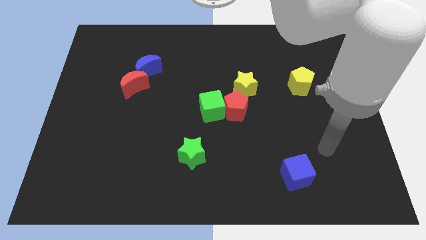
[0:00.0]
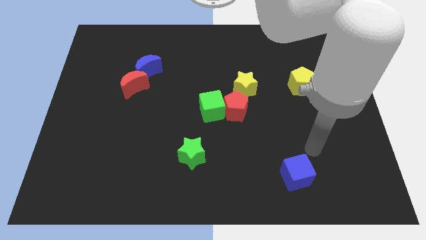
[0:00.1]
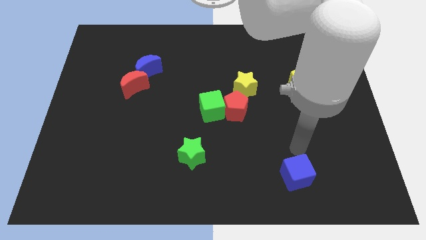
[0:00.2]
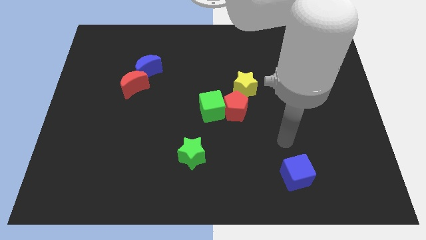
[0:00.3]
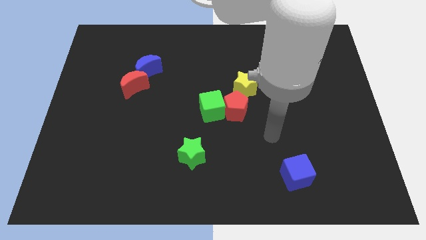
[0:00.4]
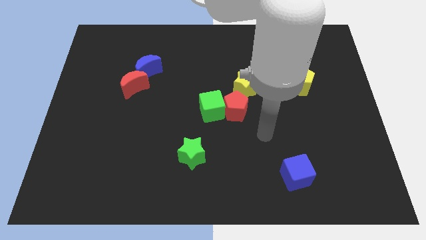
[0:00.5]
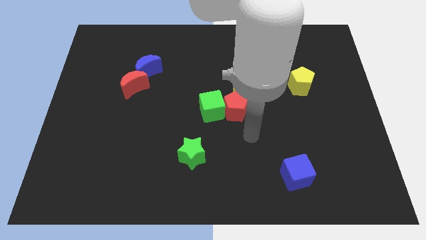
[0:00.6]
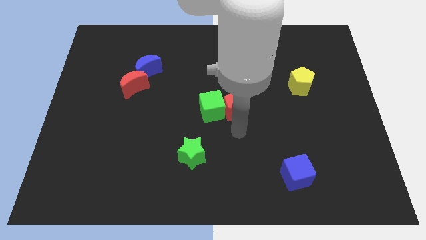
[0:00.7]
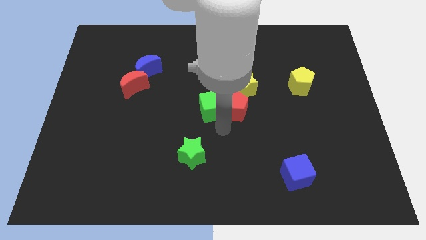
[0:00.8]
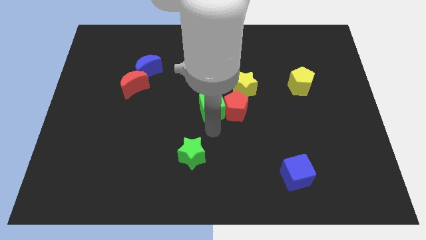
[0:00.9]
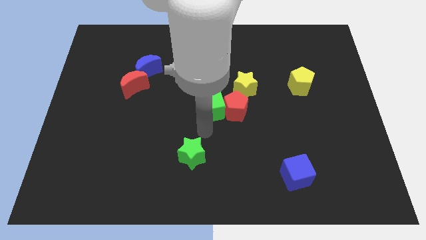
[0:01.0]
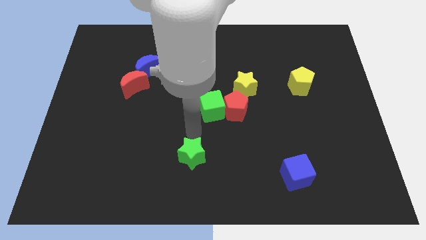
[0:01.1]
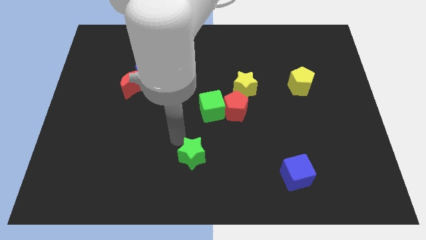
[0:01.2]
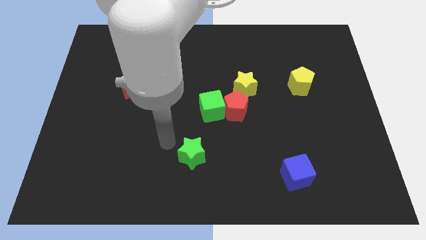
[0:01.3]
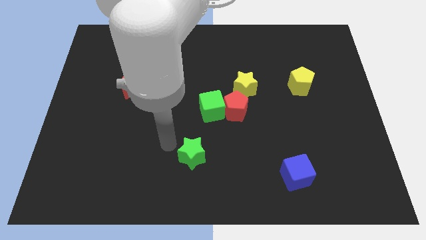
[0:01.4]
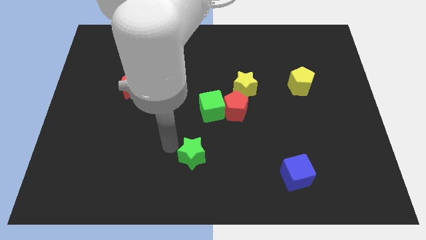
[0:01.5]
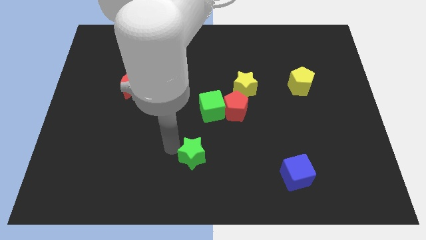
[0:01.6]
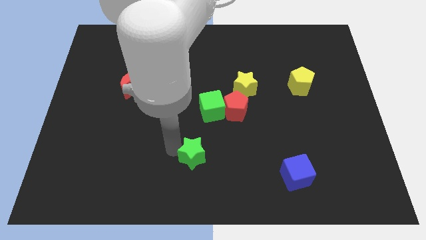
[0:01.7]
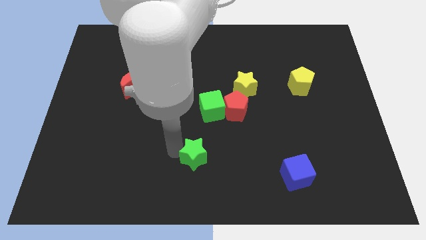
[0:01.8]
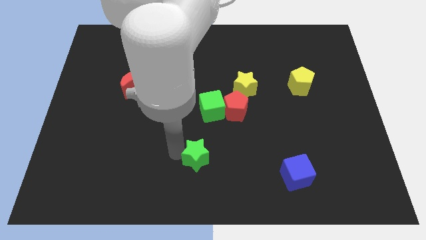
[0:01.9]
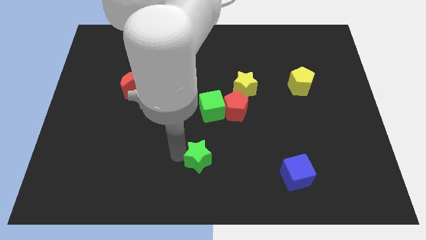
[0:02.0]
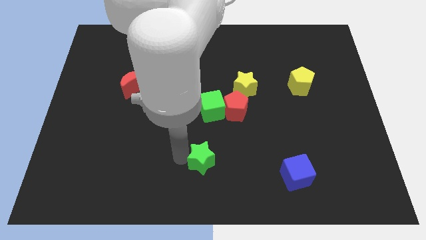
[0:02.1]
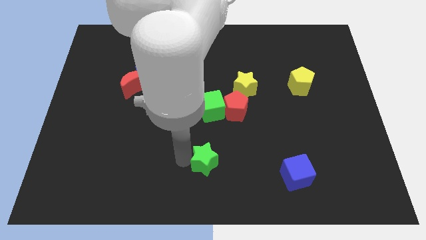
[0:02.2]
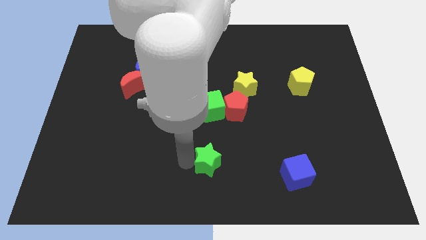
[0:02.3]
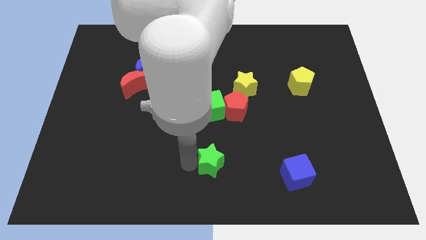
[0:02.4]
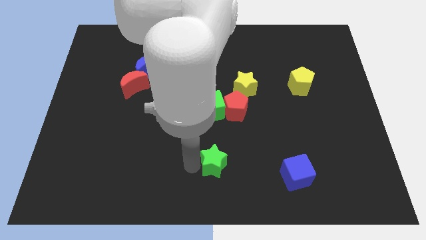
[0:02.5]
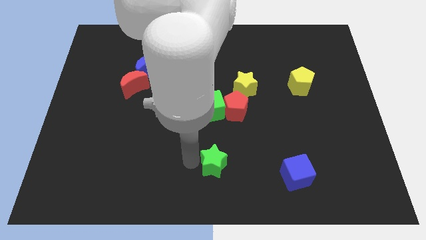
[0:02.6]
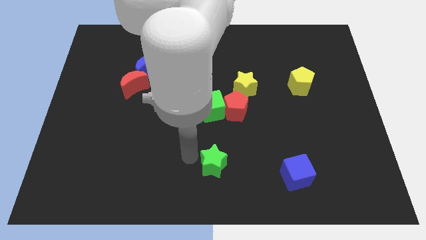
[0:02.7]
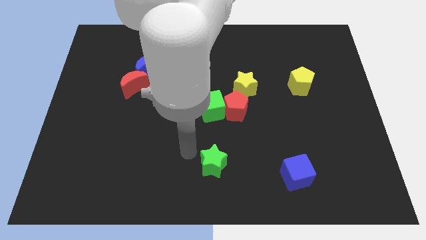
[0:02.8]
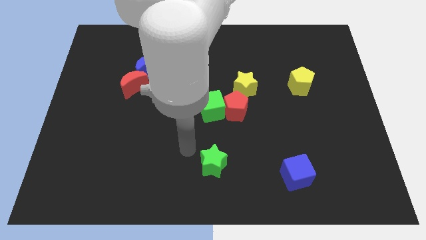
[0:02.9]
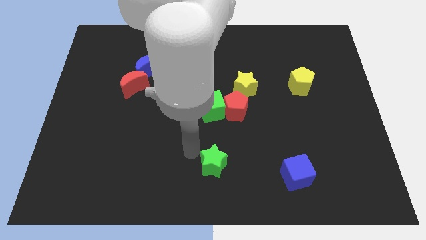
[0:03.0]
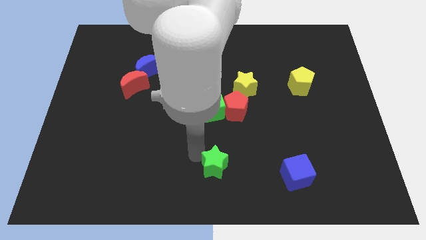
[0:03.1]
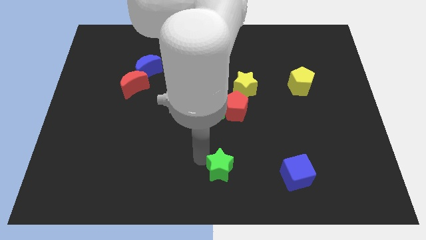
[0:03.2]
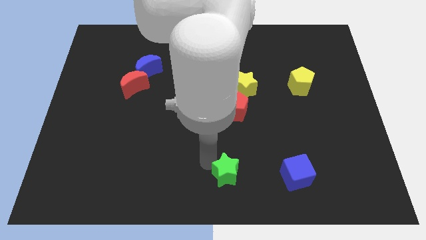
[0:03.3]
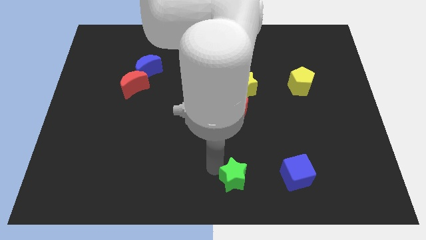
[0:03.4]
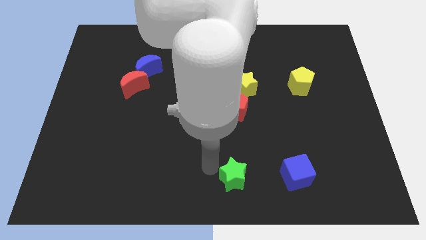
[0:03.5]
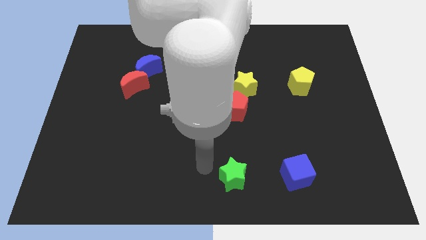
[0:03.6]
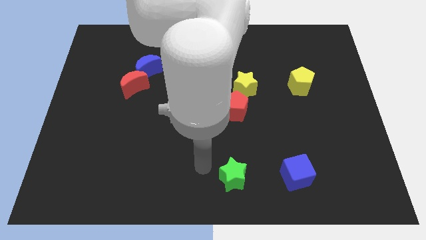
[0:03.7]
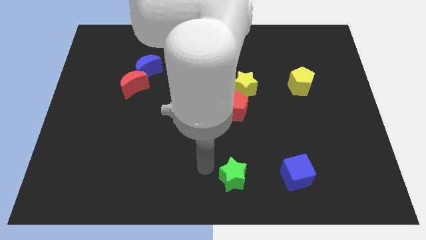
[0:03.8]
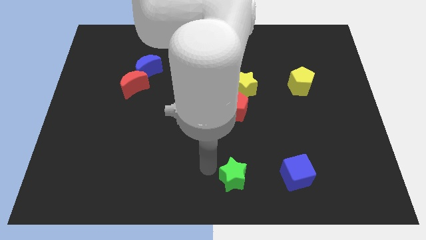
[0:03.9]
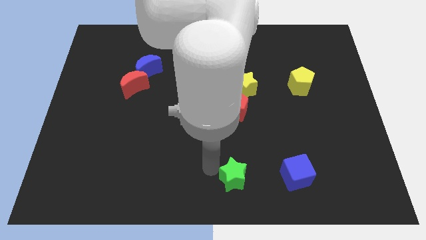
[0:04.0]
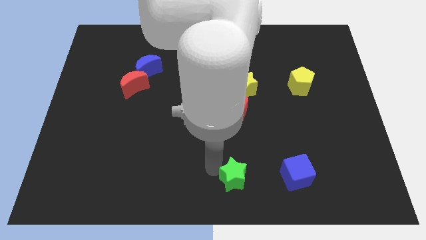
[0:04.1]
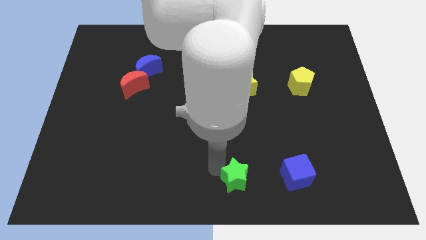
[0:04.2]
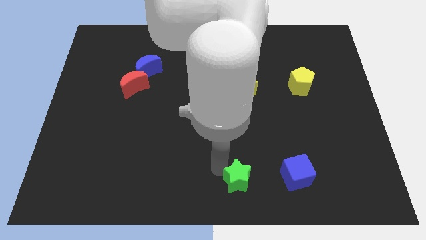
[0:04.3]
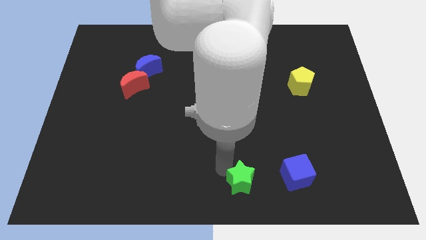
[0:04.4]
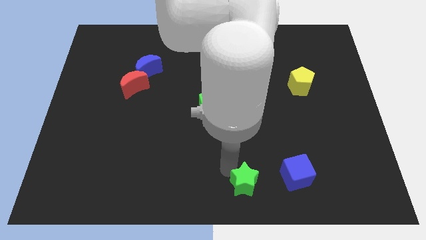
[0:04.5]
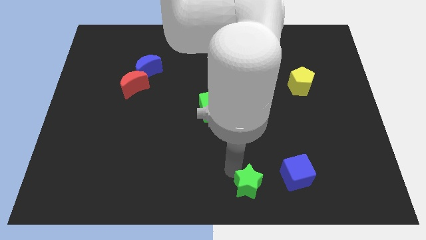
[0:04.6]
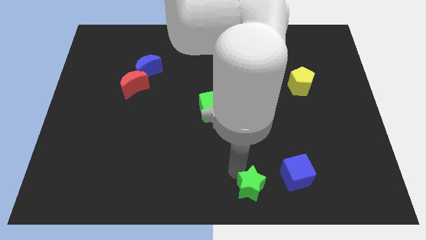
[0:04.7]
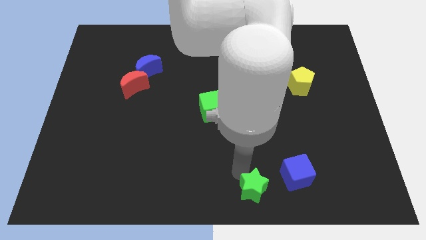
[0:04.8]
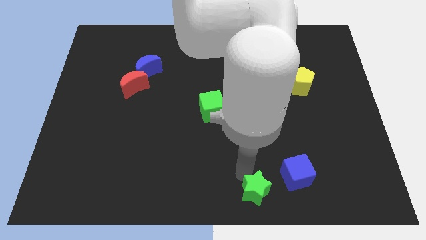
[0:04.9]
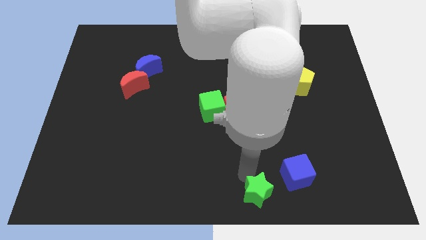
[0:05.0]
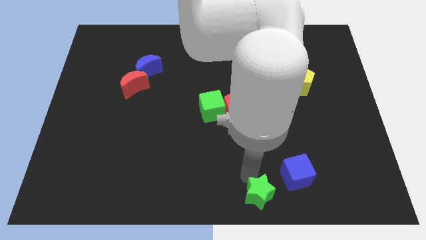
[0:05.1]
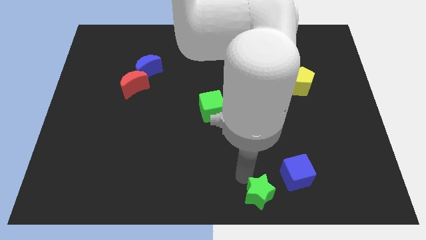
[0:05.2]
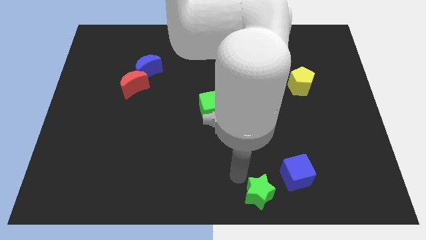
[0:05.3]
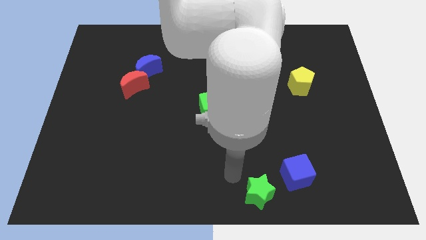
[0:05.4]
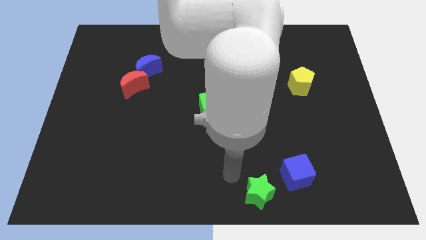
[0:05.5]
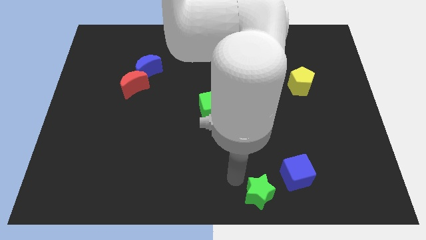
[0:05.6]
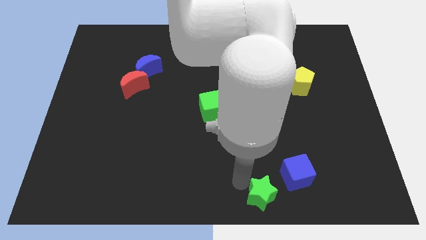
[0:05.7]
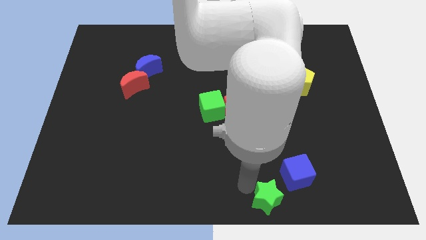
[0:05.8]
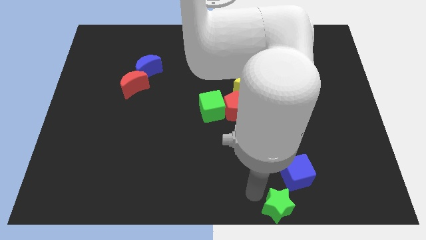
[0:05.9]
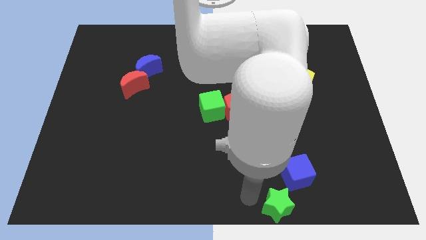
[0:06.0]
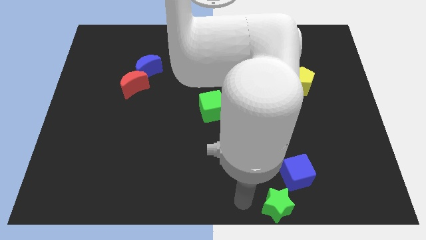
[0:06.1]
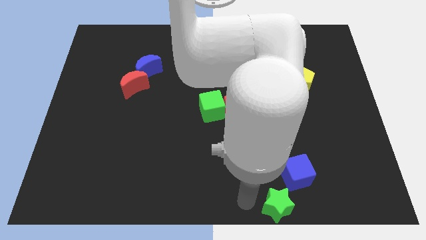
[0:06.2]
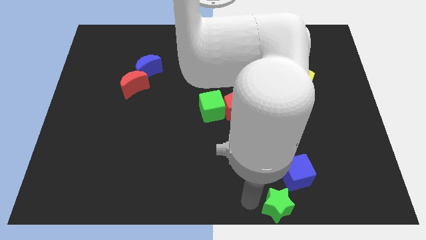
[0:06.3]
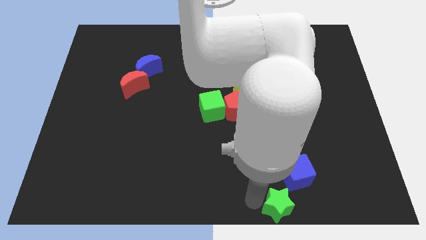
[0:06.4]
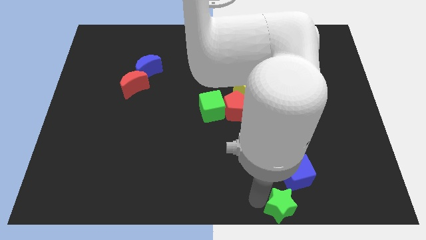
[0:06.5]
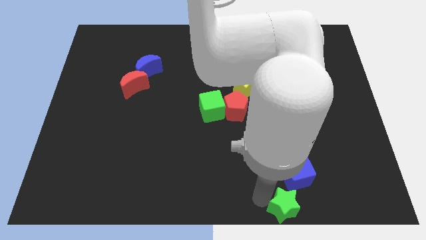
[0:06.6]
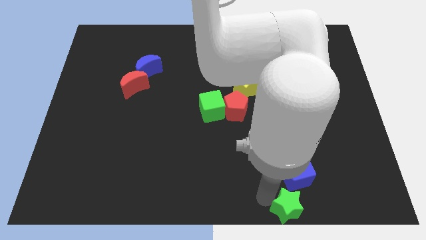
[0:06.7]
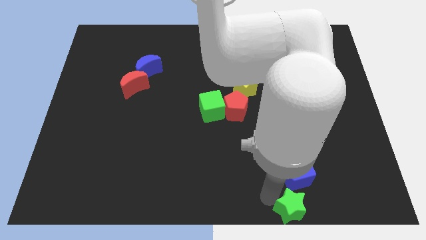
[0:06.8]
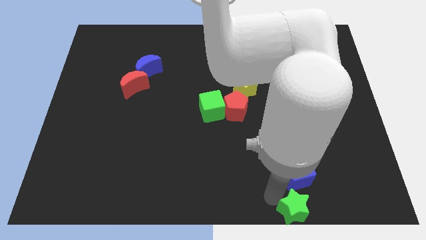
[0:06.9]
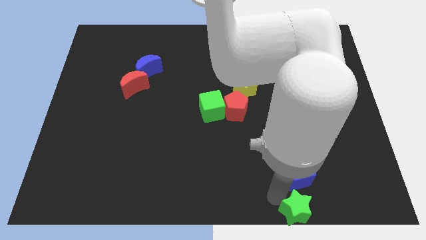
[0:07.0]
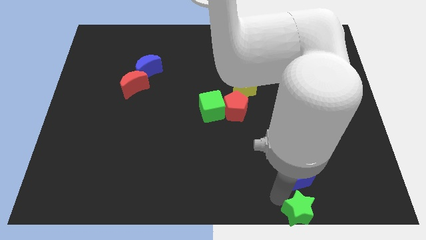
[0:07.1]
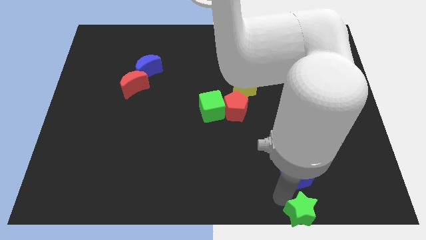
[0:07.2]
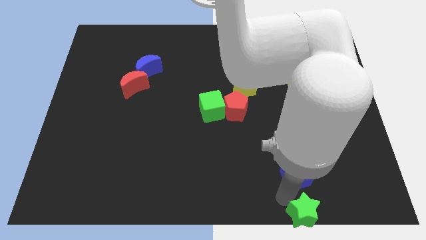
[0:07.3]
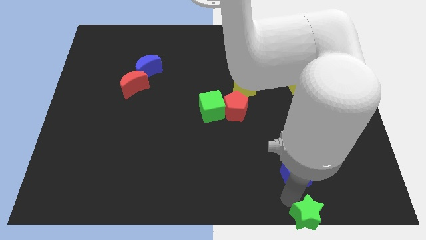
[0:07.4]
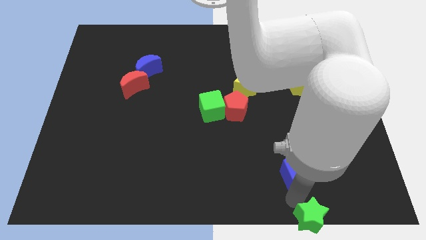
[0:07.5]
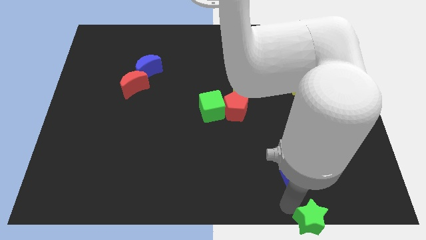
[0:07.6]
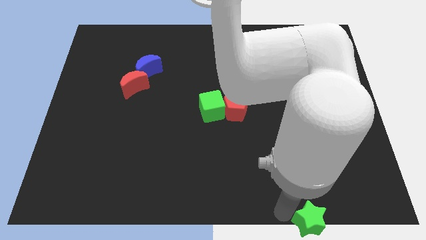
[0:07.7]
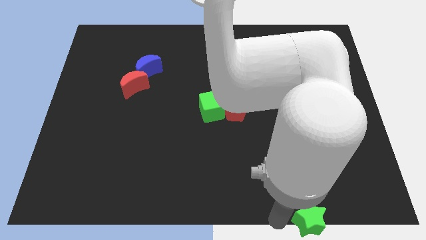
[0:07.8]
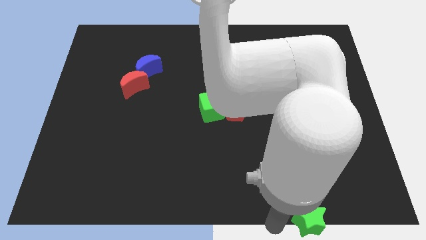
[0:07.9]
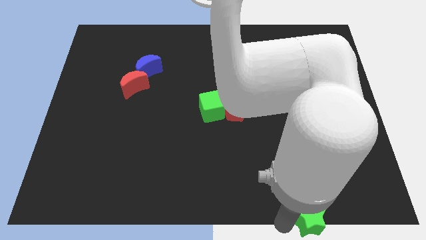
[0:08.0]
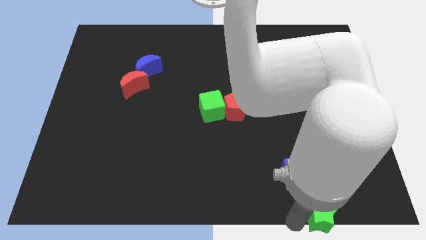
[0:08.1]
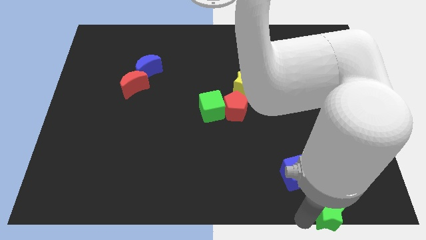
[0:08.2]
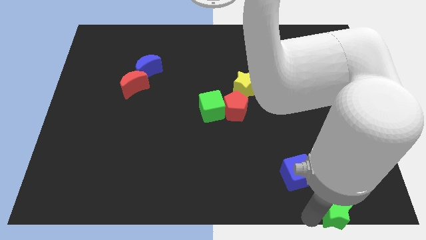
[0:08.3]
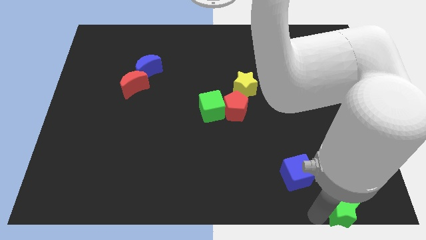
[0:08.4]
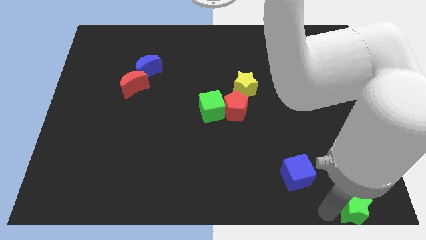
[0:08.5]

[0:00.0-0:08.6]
put the green star to the bottom right
